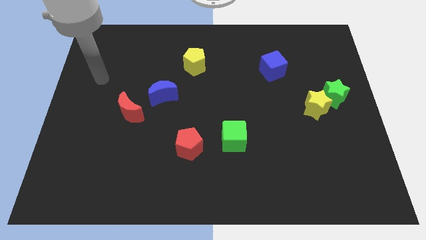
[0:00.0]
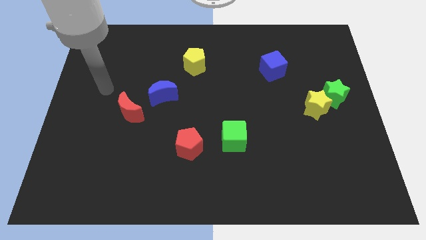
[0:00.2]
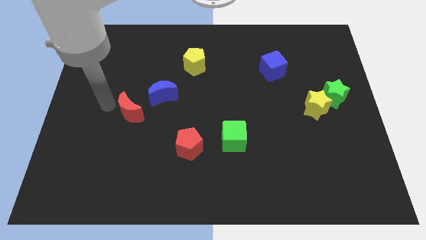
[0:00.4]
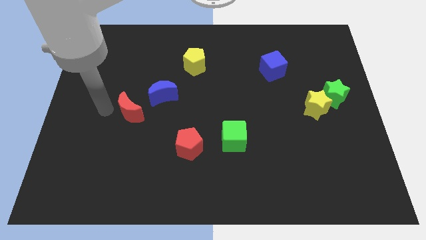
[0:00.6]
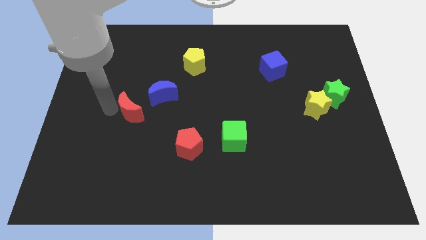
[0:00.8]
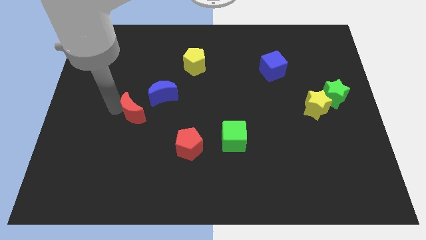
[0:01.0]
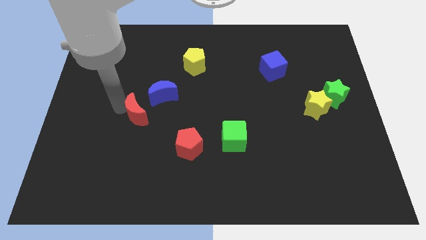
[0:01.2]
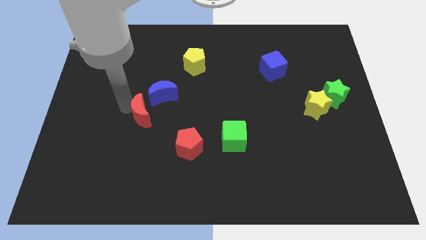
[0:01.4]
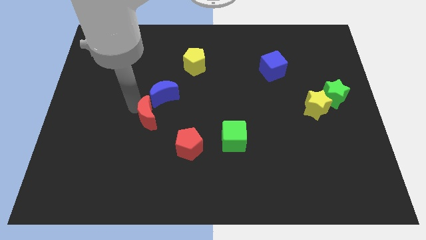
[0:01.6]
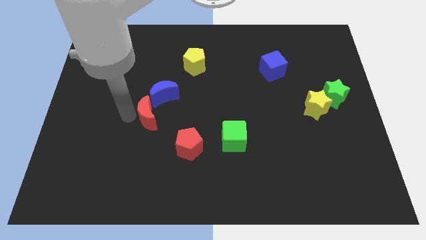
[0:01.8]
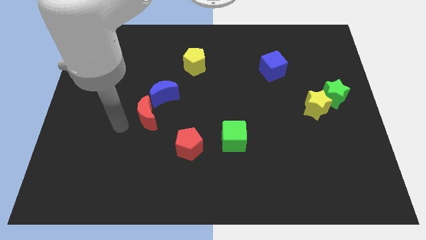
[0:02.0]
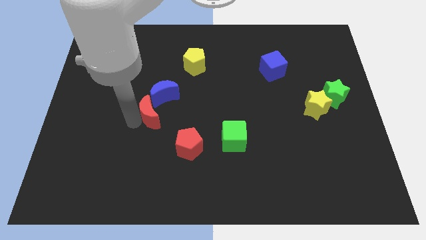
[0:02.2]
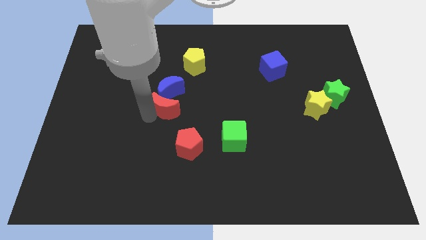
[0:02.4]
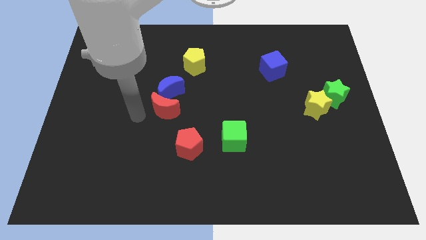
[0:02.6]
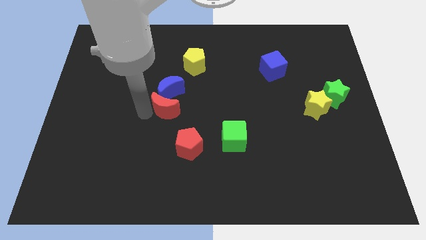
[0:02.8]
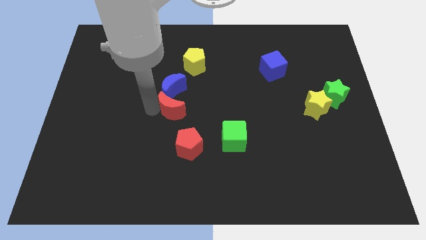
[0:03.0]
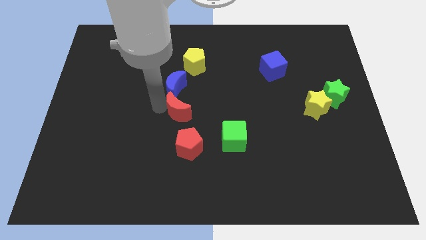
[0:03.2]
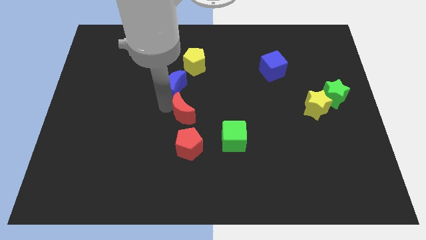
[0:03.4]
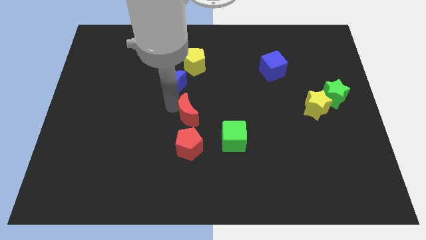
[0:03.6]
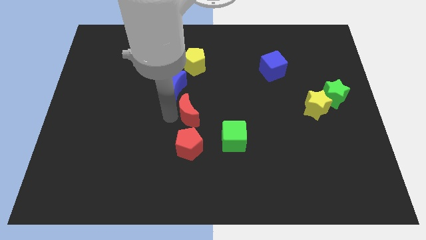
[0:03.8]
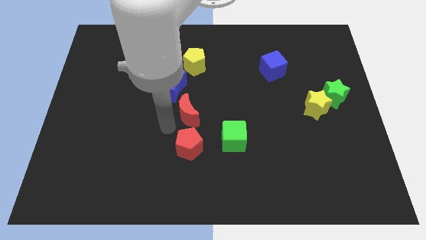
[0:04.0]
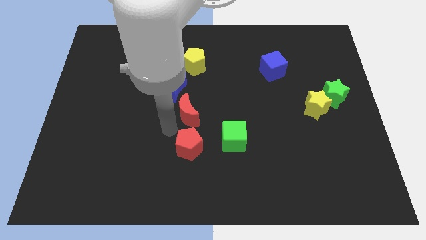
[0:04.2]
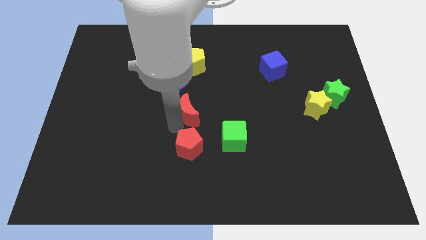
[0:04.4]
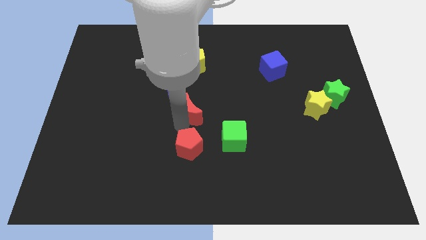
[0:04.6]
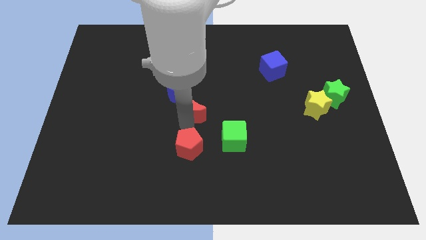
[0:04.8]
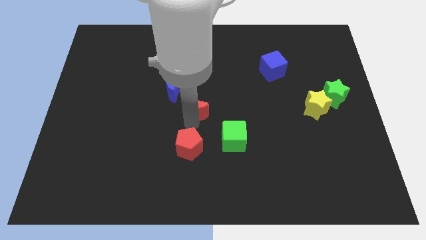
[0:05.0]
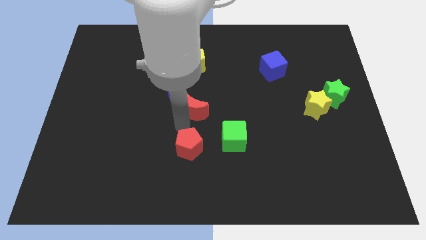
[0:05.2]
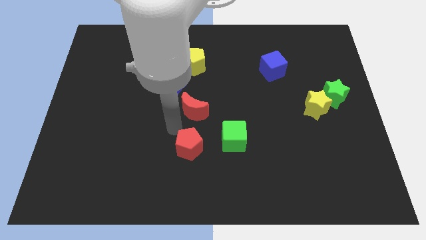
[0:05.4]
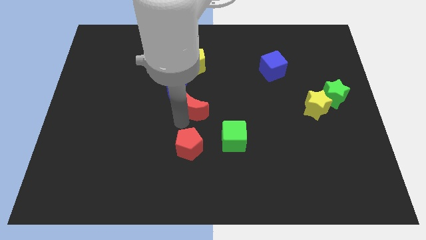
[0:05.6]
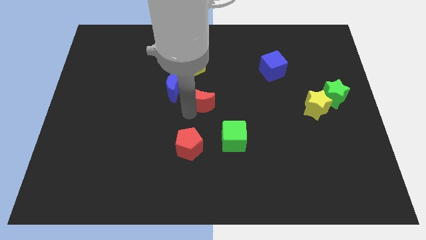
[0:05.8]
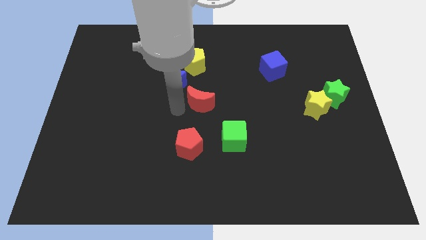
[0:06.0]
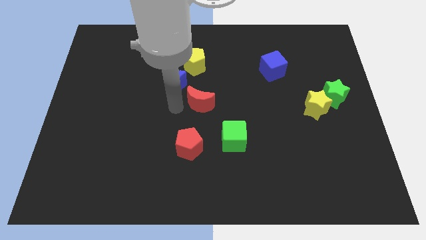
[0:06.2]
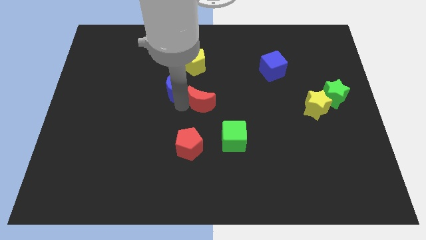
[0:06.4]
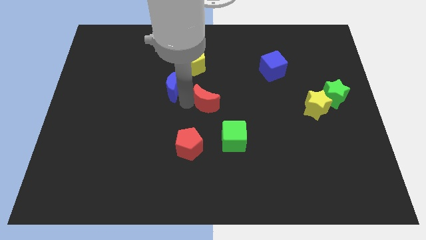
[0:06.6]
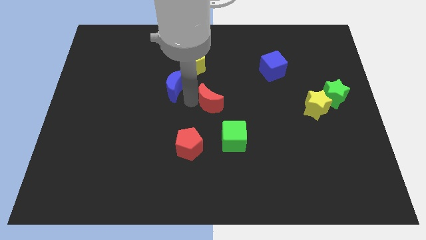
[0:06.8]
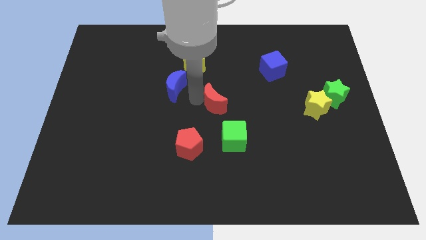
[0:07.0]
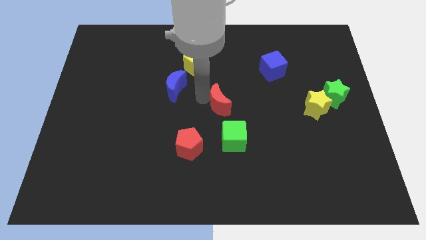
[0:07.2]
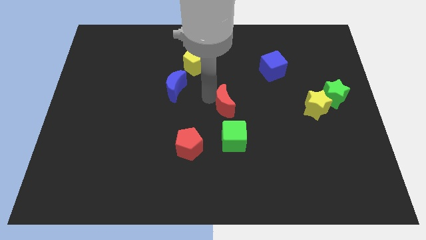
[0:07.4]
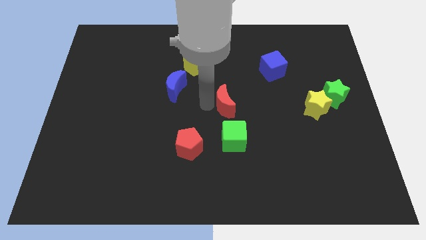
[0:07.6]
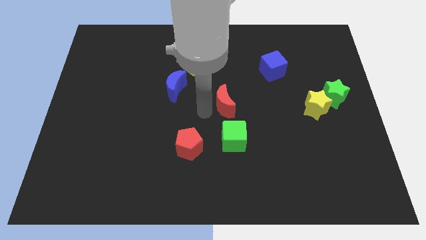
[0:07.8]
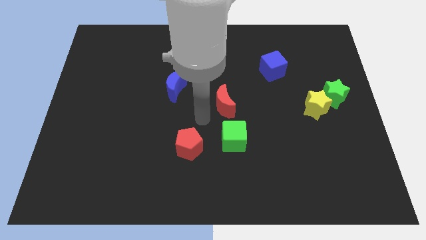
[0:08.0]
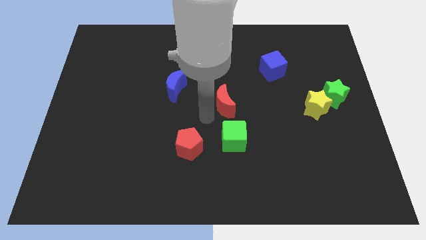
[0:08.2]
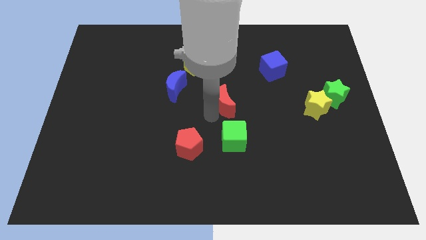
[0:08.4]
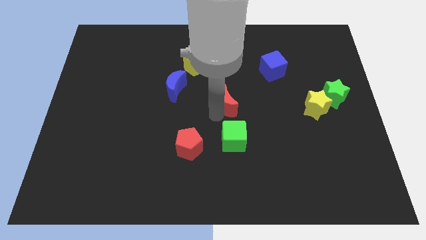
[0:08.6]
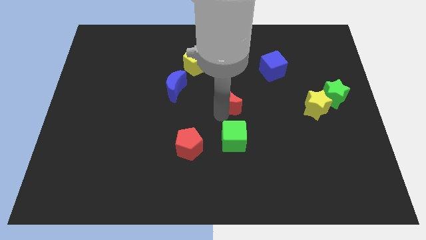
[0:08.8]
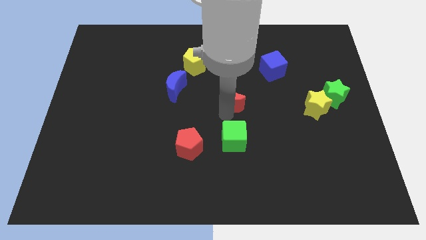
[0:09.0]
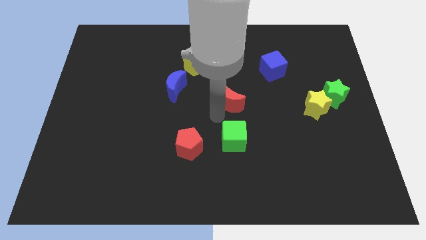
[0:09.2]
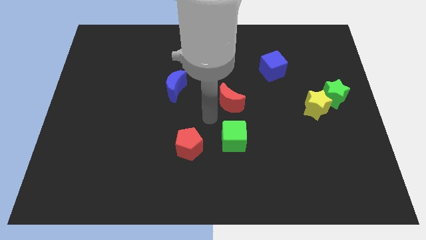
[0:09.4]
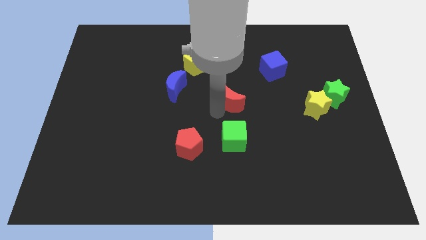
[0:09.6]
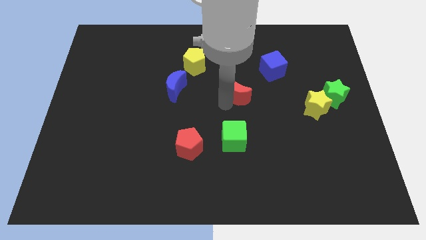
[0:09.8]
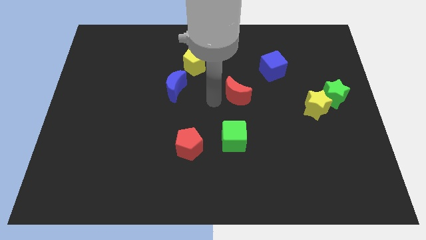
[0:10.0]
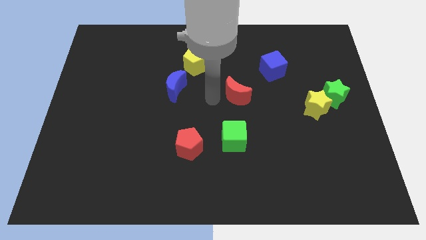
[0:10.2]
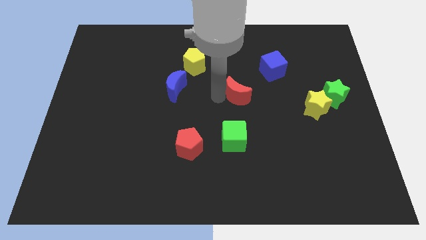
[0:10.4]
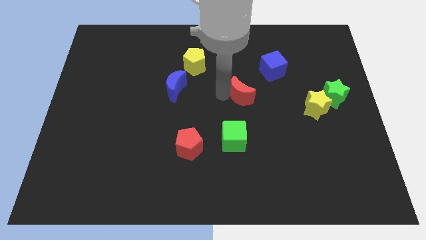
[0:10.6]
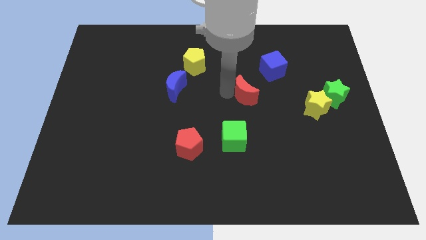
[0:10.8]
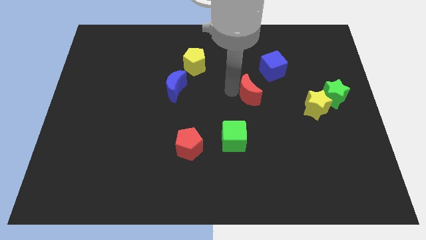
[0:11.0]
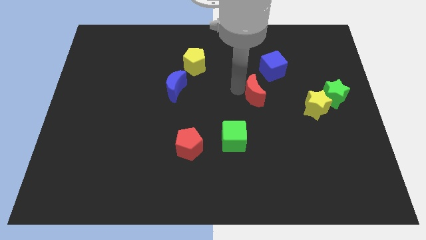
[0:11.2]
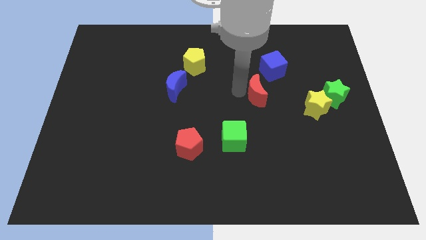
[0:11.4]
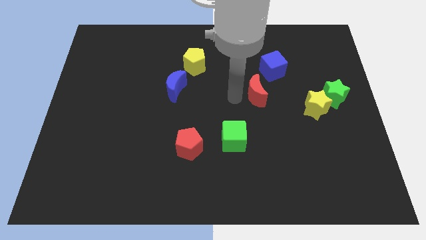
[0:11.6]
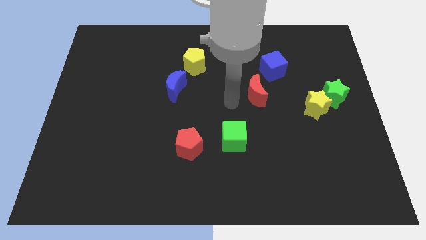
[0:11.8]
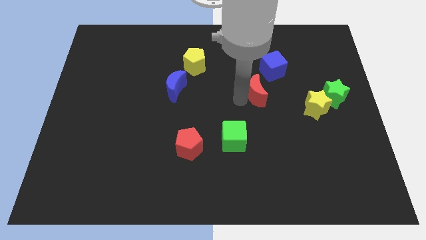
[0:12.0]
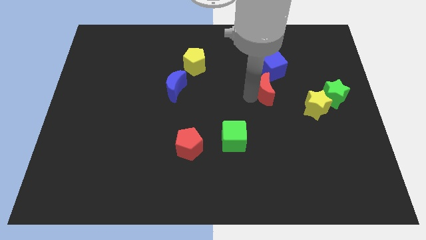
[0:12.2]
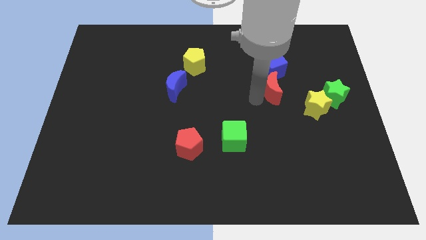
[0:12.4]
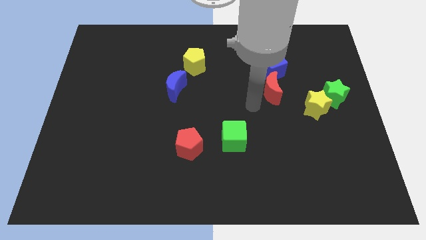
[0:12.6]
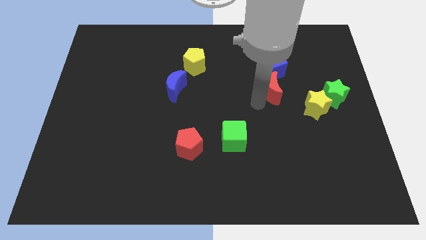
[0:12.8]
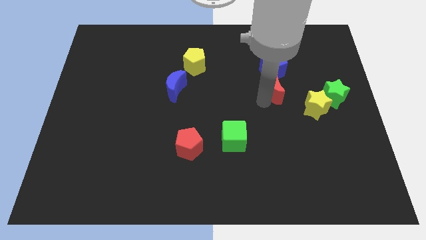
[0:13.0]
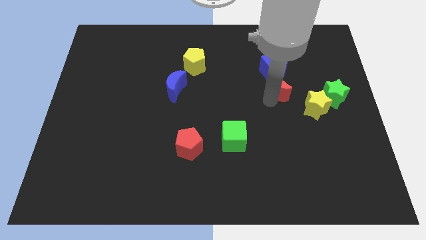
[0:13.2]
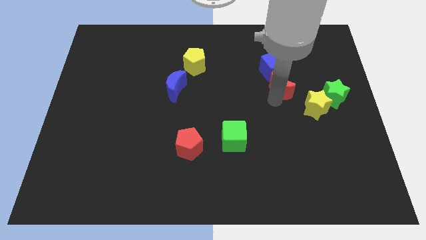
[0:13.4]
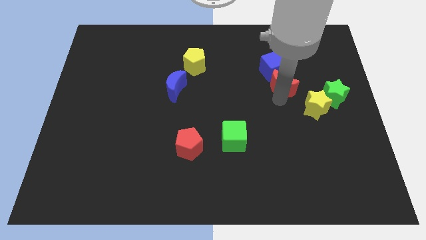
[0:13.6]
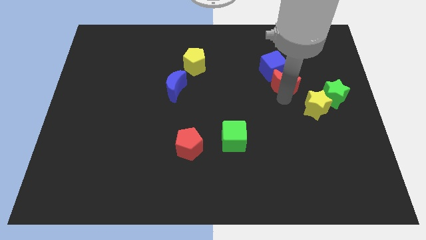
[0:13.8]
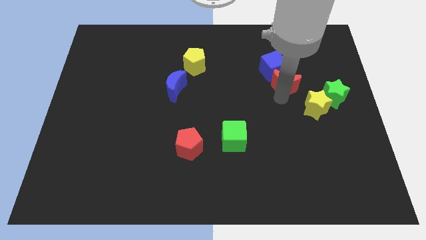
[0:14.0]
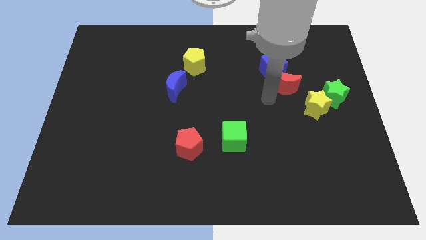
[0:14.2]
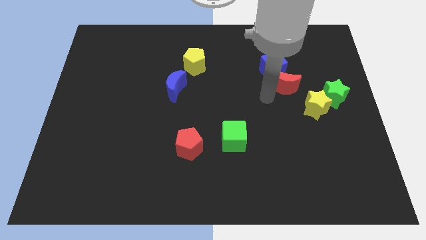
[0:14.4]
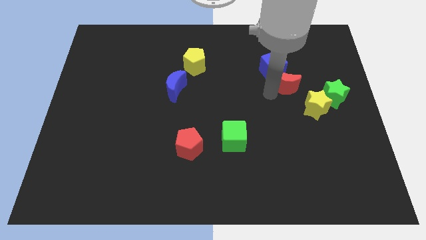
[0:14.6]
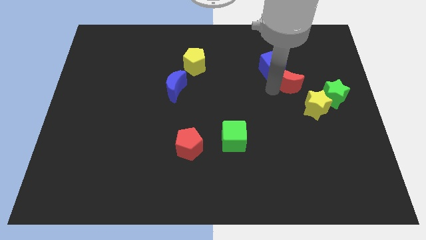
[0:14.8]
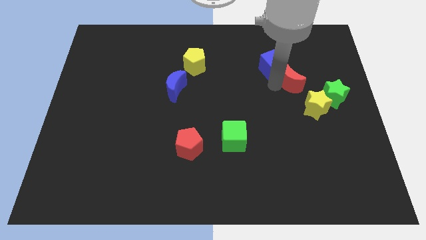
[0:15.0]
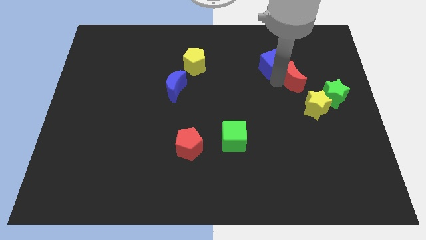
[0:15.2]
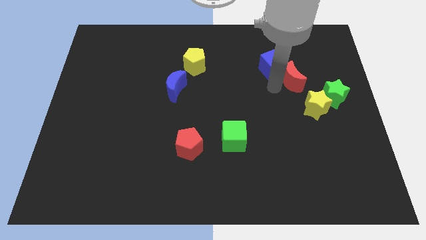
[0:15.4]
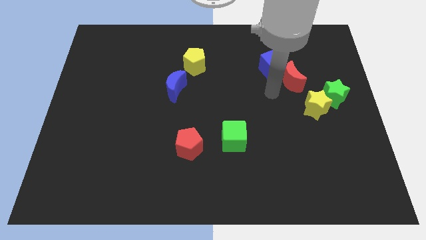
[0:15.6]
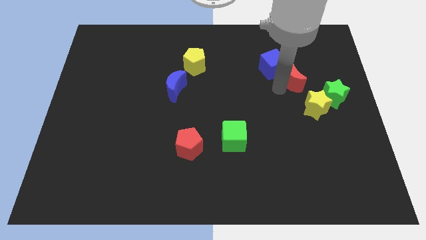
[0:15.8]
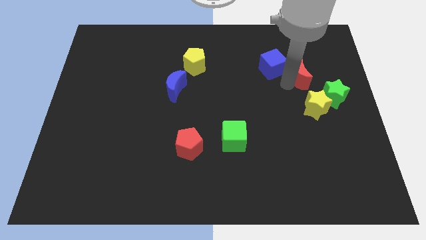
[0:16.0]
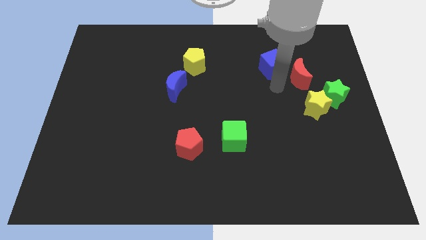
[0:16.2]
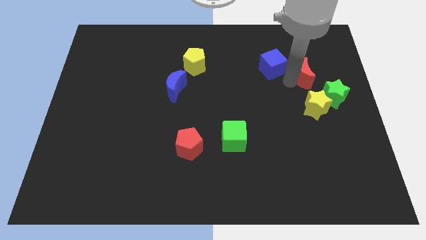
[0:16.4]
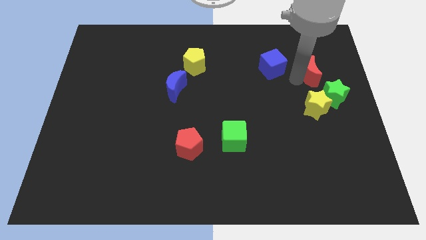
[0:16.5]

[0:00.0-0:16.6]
slide the red moon to the top of the green star
